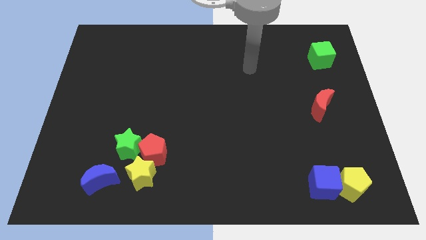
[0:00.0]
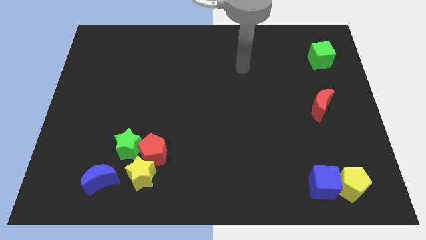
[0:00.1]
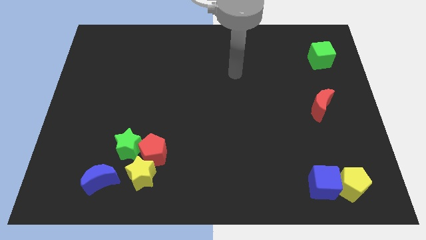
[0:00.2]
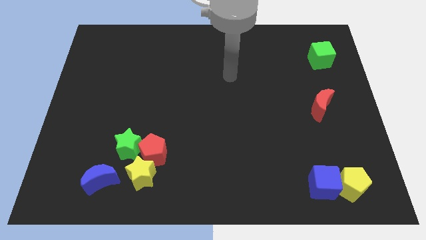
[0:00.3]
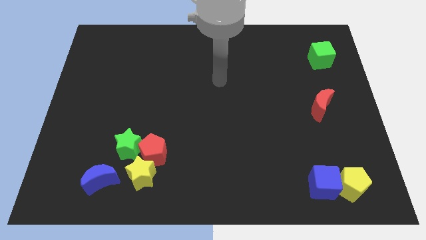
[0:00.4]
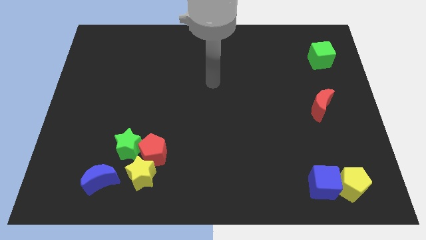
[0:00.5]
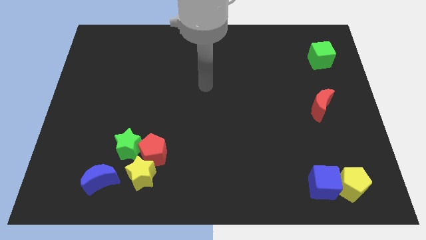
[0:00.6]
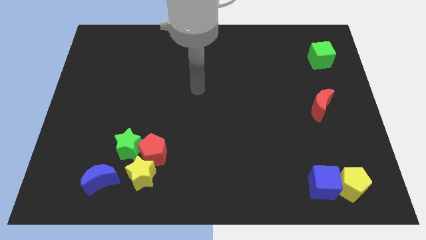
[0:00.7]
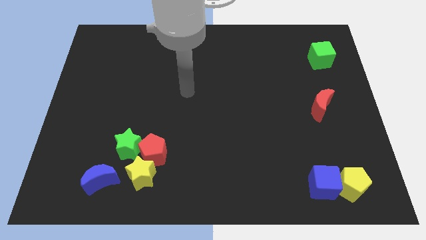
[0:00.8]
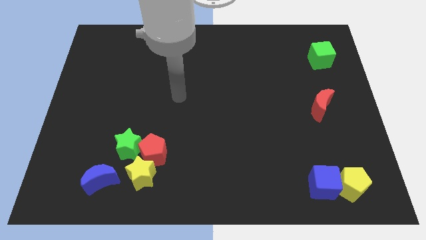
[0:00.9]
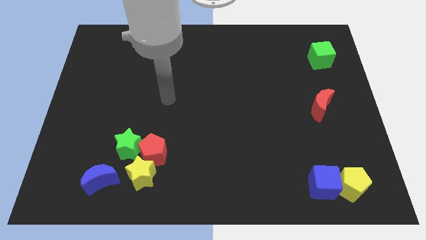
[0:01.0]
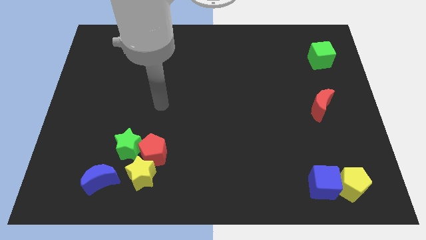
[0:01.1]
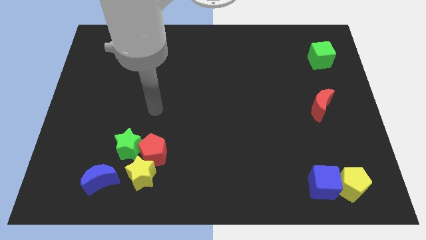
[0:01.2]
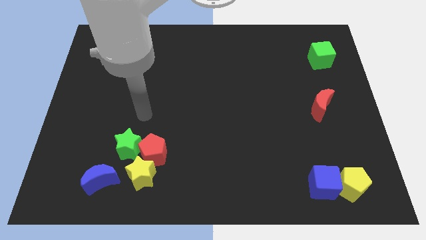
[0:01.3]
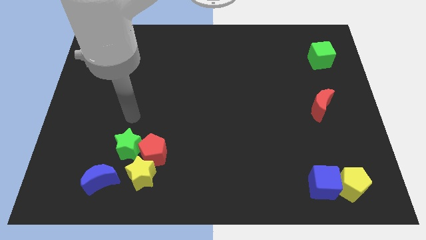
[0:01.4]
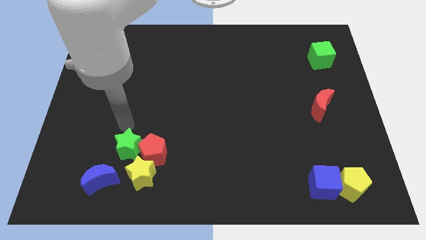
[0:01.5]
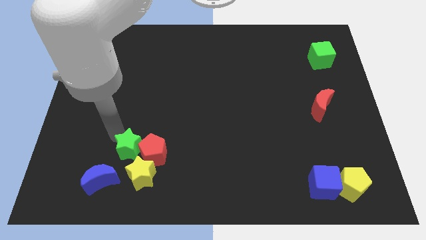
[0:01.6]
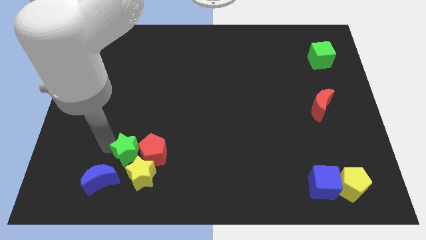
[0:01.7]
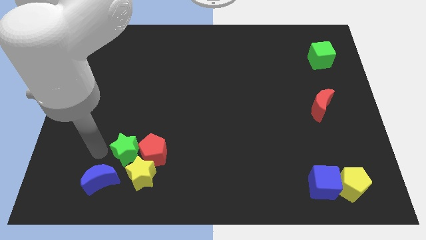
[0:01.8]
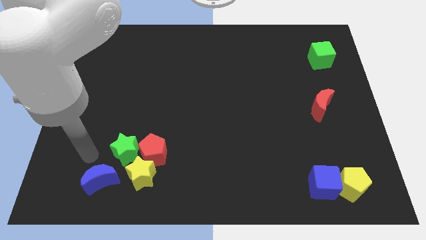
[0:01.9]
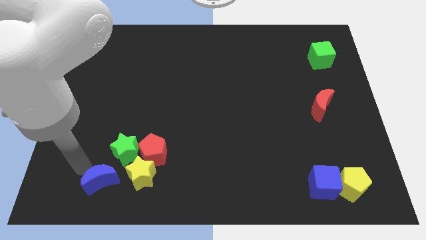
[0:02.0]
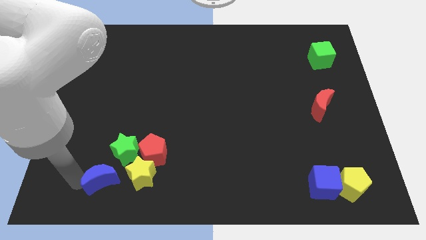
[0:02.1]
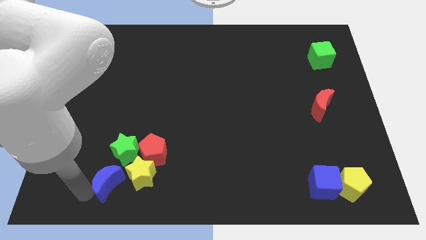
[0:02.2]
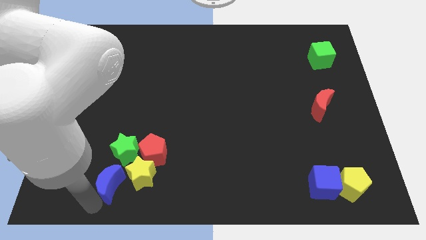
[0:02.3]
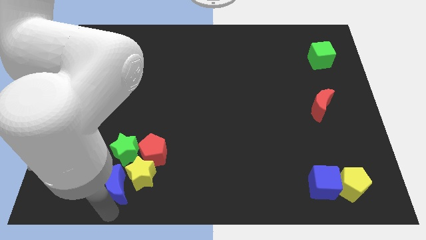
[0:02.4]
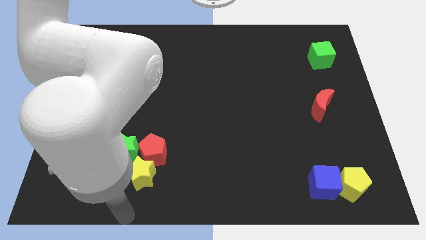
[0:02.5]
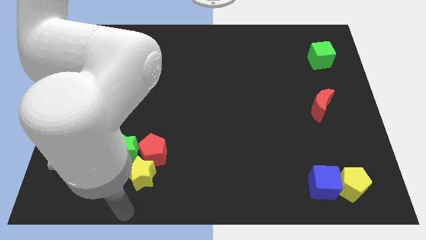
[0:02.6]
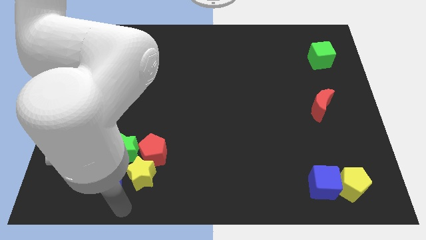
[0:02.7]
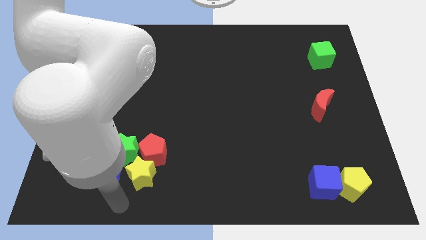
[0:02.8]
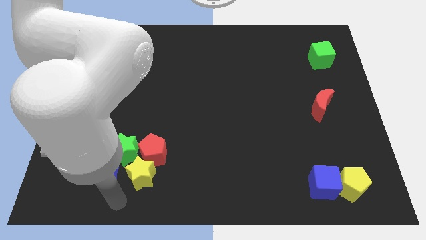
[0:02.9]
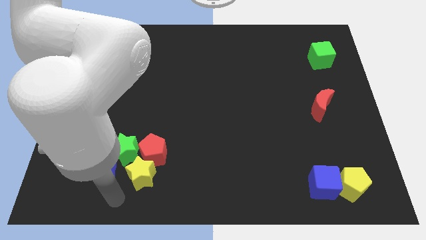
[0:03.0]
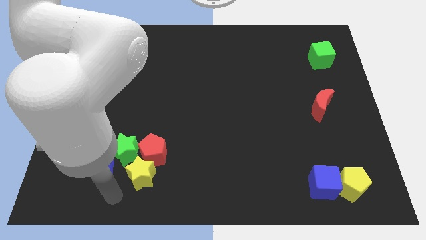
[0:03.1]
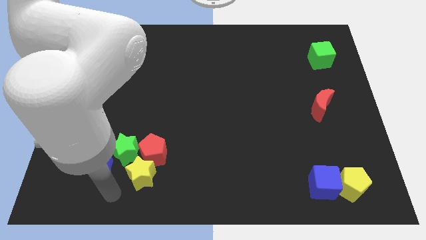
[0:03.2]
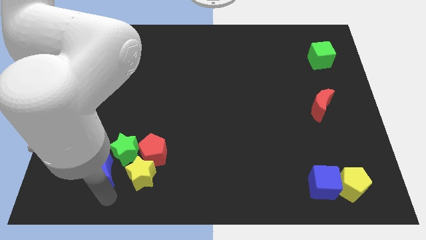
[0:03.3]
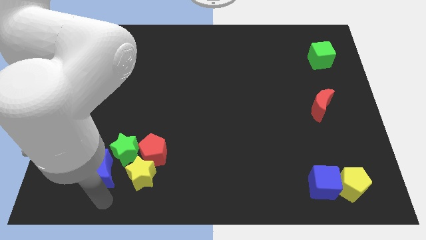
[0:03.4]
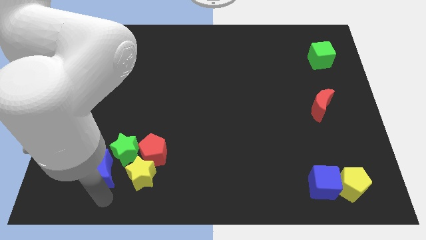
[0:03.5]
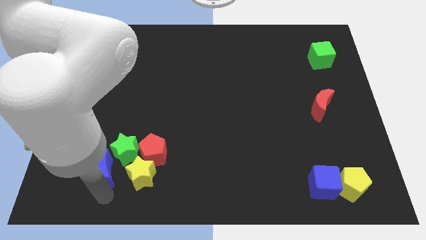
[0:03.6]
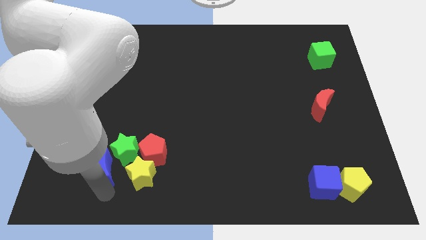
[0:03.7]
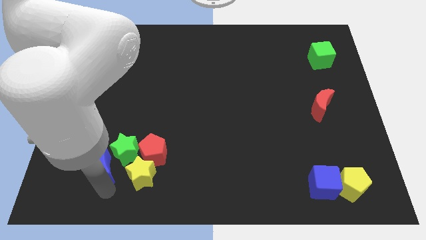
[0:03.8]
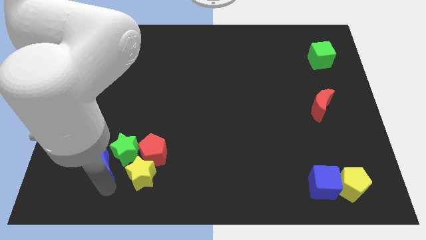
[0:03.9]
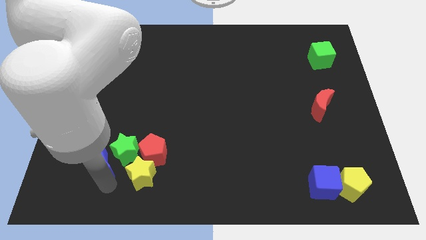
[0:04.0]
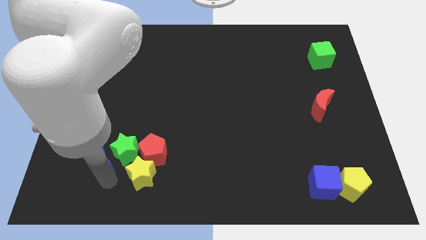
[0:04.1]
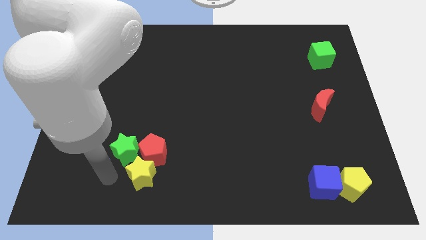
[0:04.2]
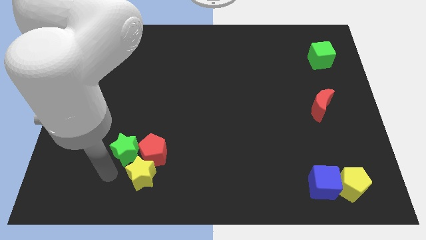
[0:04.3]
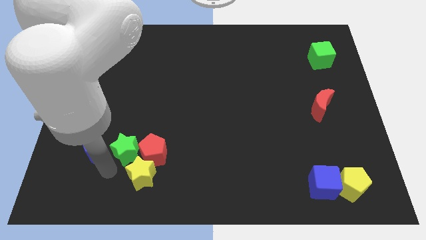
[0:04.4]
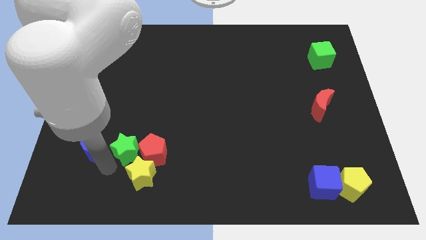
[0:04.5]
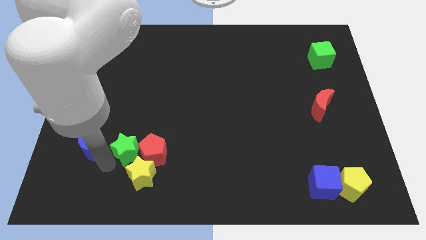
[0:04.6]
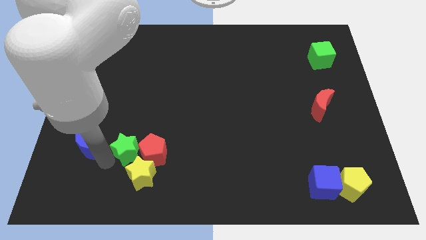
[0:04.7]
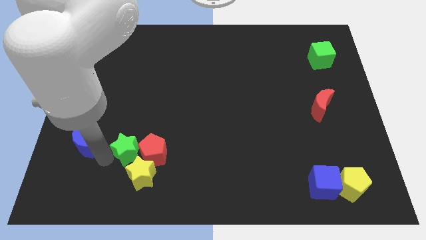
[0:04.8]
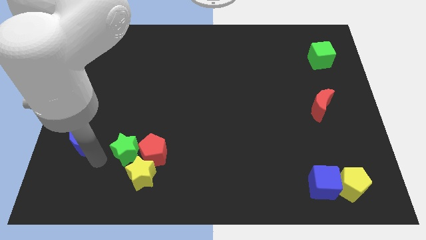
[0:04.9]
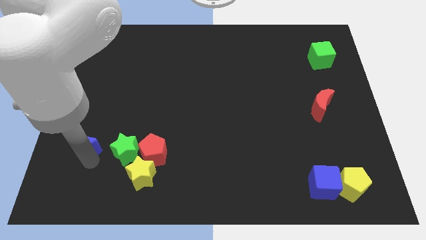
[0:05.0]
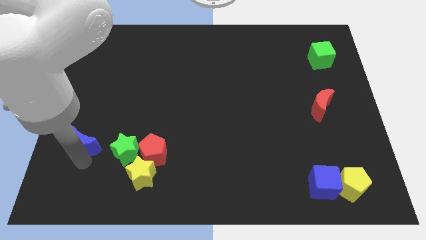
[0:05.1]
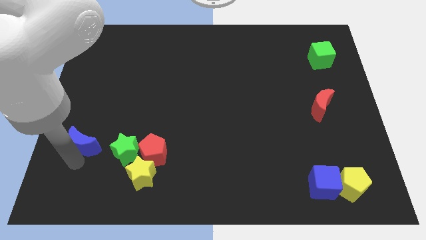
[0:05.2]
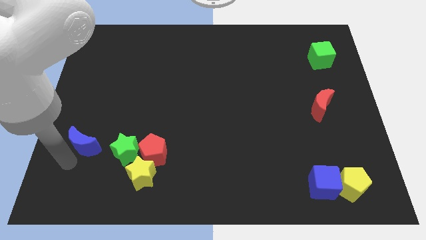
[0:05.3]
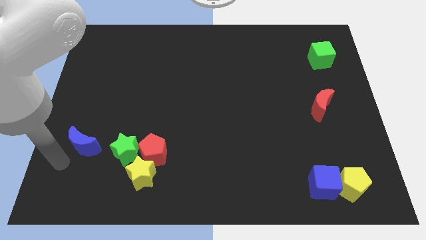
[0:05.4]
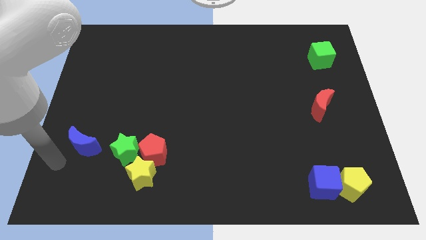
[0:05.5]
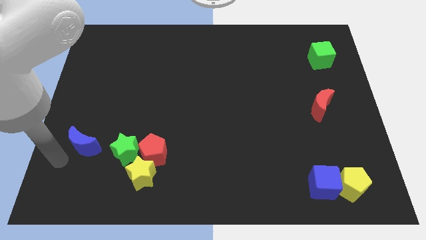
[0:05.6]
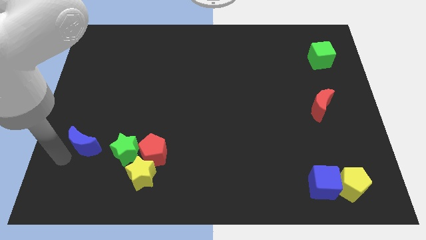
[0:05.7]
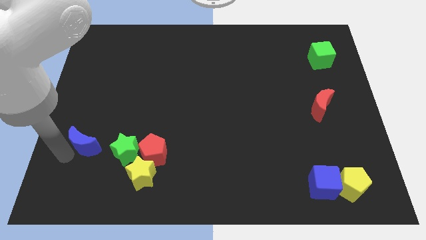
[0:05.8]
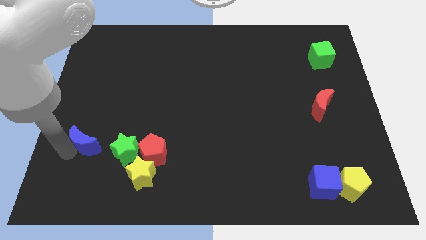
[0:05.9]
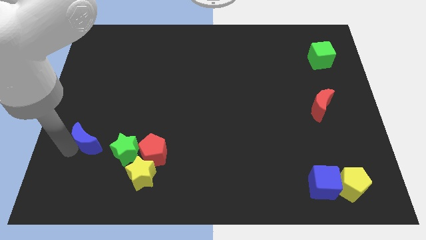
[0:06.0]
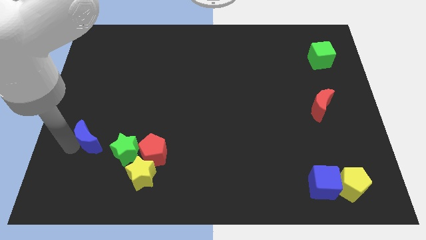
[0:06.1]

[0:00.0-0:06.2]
put the blue moon to the top left side of the green star
